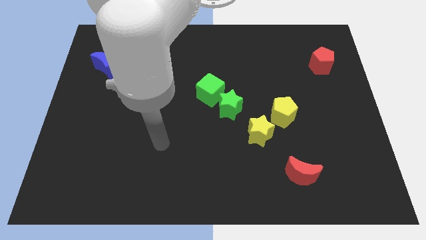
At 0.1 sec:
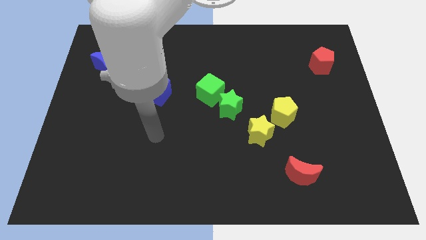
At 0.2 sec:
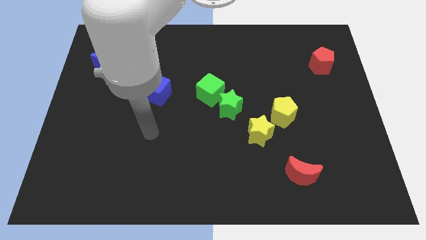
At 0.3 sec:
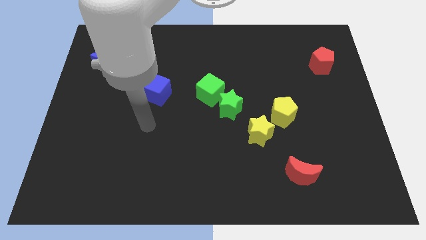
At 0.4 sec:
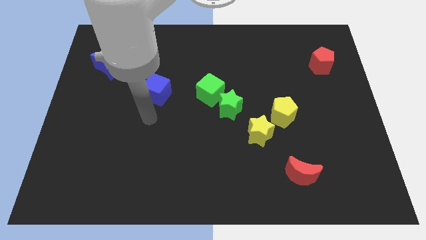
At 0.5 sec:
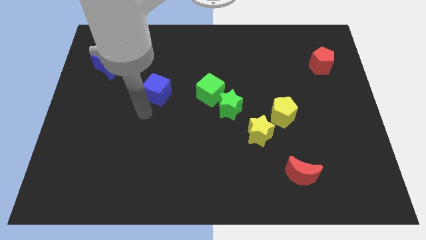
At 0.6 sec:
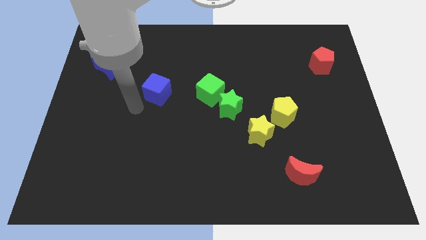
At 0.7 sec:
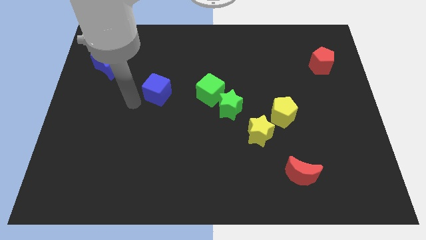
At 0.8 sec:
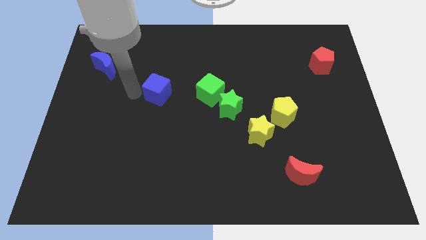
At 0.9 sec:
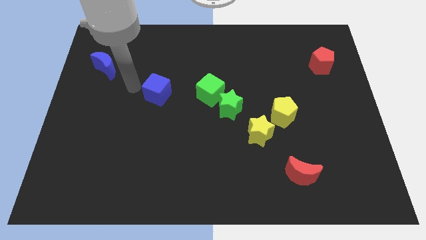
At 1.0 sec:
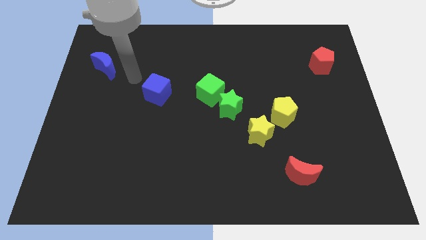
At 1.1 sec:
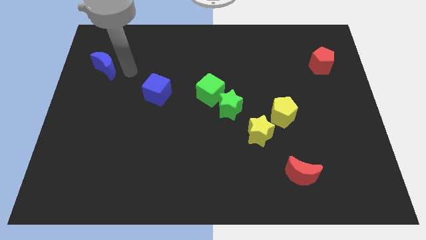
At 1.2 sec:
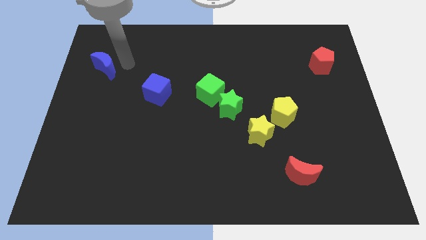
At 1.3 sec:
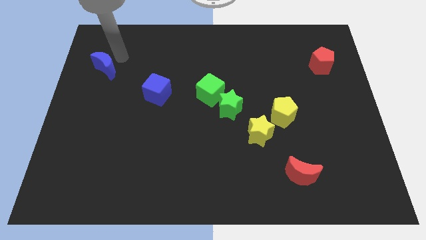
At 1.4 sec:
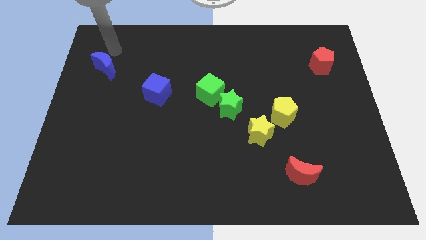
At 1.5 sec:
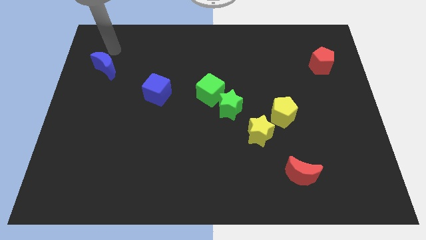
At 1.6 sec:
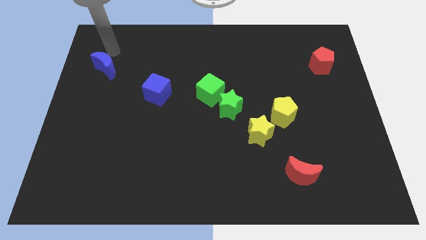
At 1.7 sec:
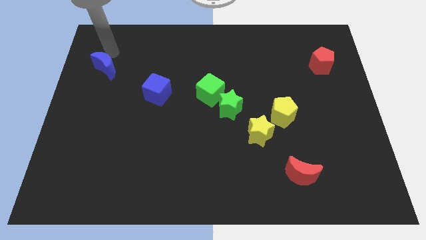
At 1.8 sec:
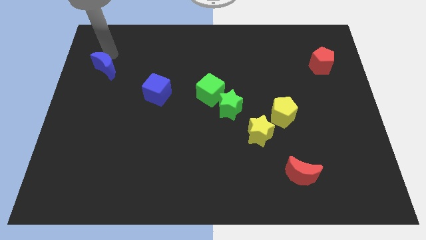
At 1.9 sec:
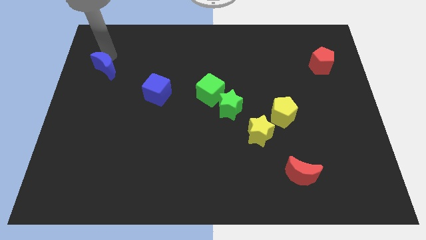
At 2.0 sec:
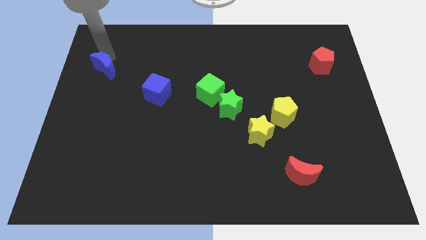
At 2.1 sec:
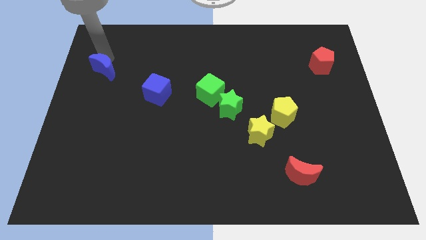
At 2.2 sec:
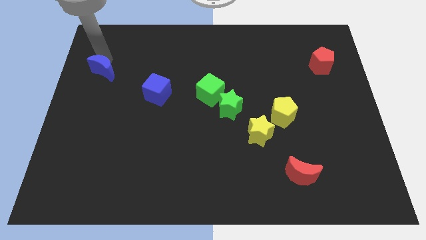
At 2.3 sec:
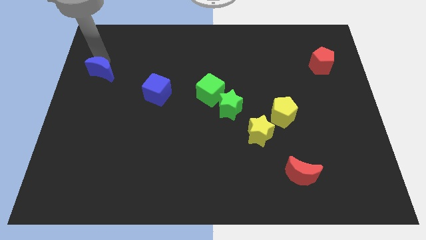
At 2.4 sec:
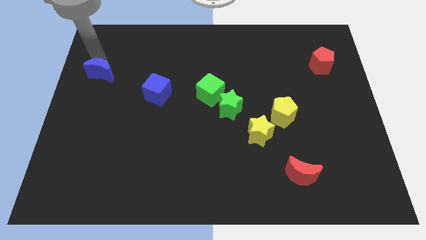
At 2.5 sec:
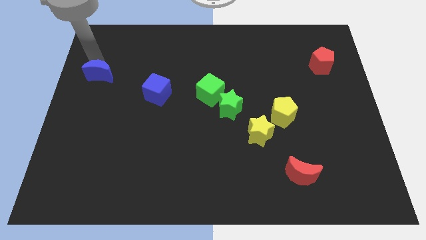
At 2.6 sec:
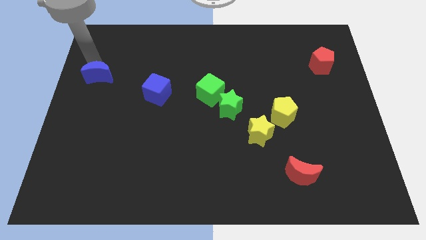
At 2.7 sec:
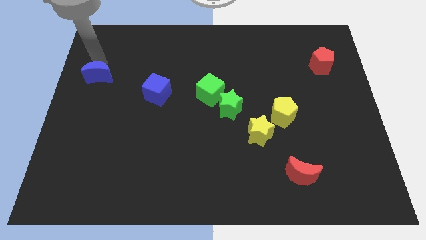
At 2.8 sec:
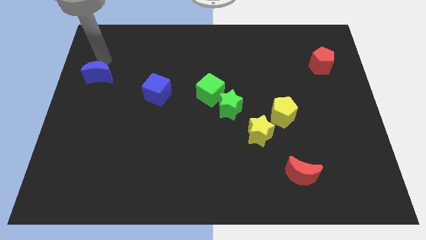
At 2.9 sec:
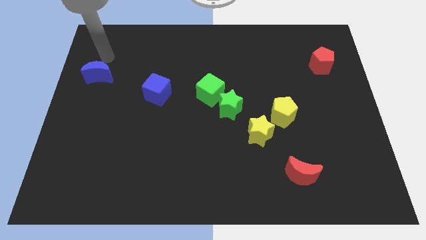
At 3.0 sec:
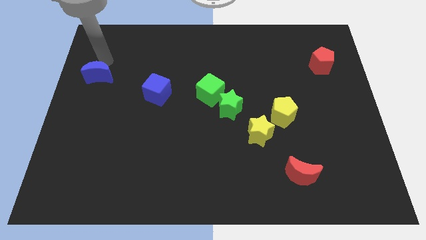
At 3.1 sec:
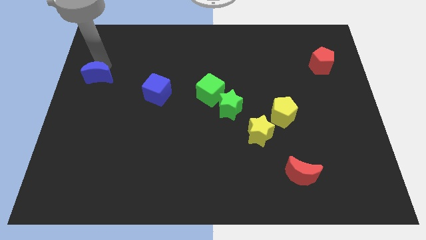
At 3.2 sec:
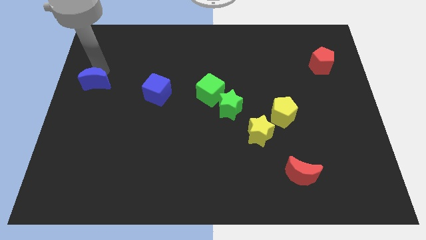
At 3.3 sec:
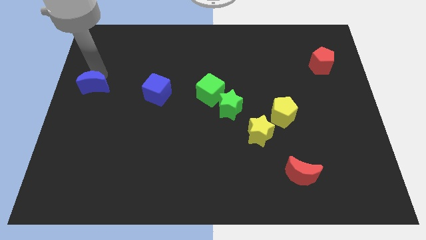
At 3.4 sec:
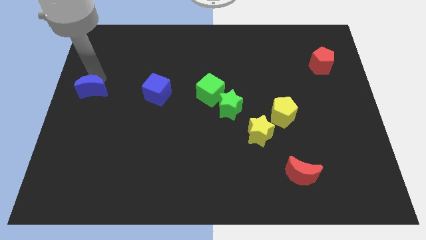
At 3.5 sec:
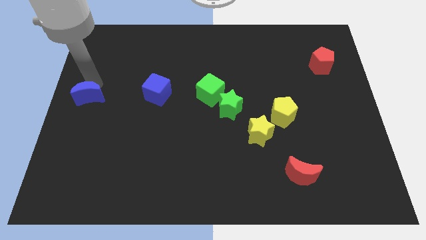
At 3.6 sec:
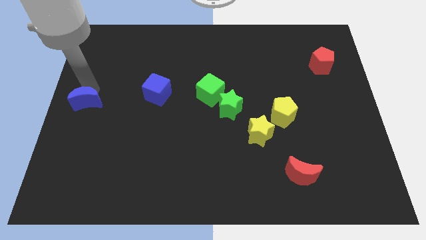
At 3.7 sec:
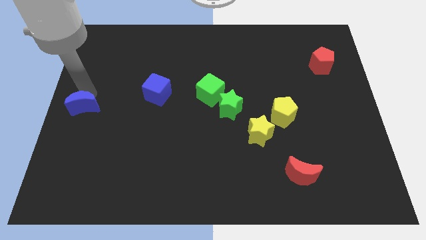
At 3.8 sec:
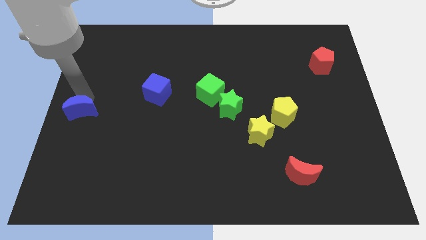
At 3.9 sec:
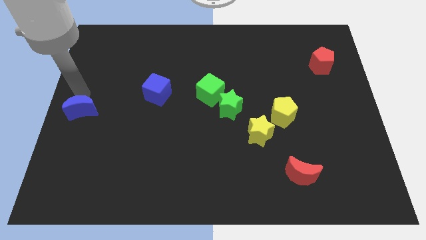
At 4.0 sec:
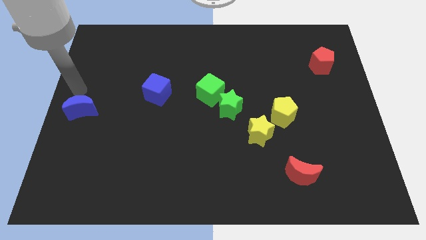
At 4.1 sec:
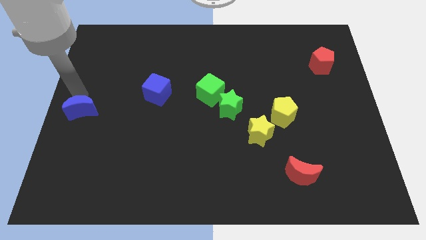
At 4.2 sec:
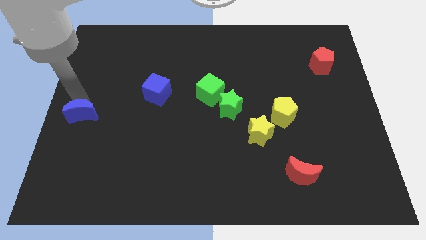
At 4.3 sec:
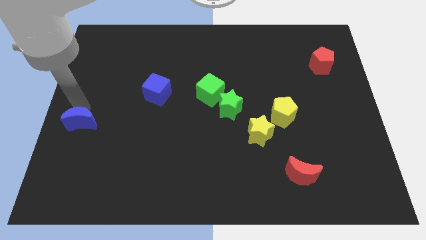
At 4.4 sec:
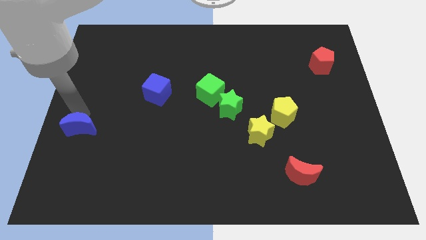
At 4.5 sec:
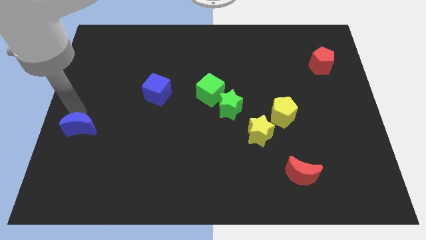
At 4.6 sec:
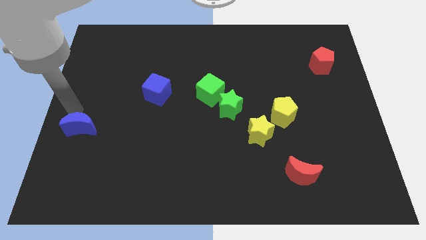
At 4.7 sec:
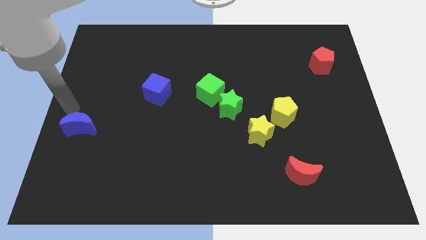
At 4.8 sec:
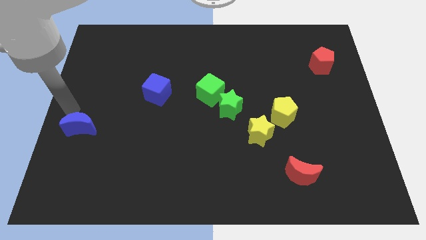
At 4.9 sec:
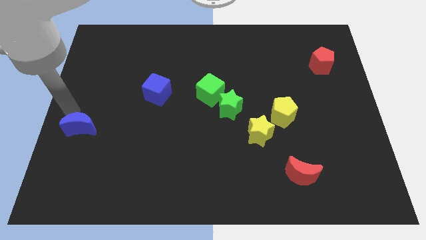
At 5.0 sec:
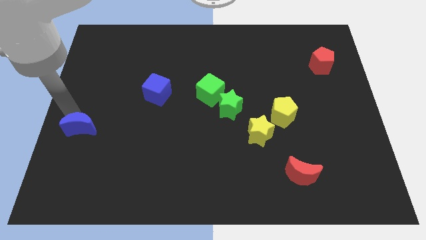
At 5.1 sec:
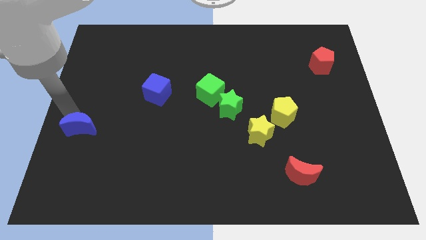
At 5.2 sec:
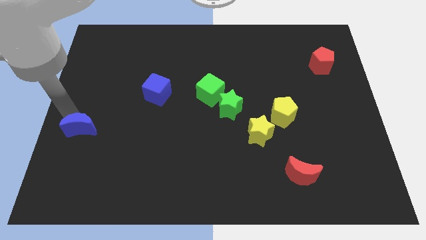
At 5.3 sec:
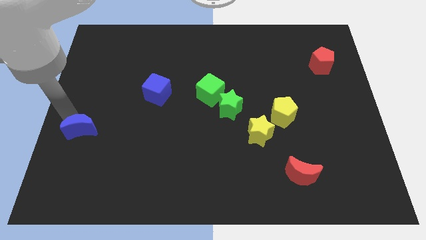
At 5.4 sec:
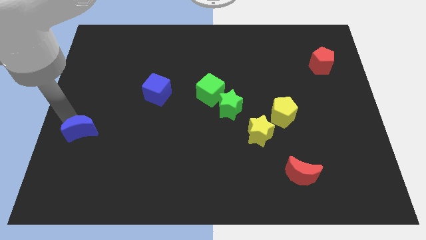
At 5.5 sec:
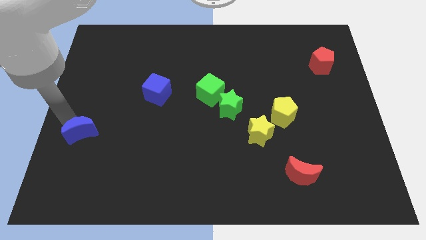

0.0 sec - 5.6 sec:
slide the blue moon downwards

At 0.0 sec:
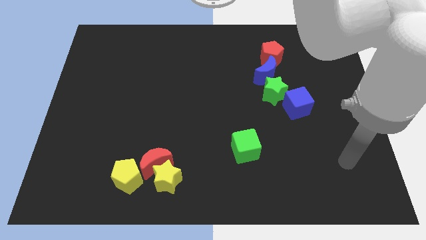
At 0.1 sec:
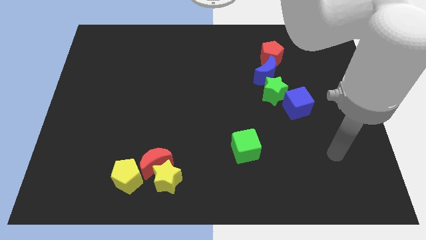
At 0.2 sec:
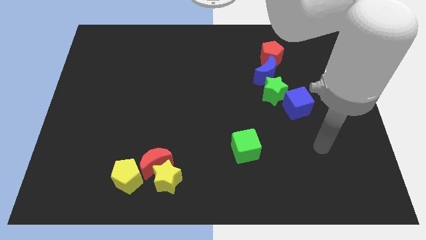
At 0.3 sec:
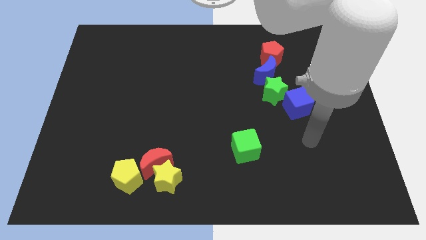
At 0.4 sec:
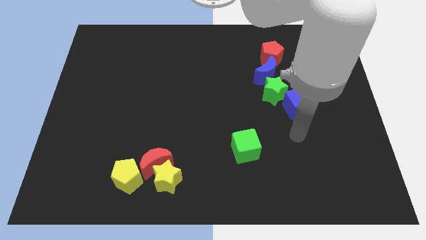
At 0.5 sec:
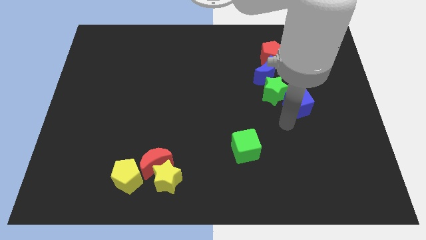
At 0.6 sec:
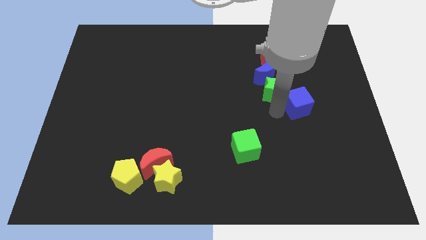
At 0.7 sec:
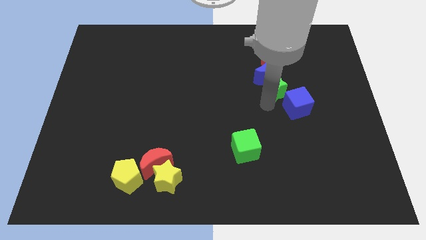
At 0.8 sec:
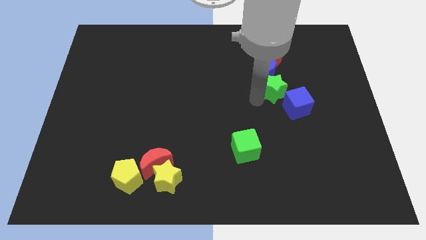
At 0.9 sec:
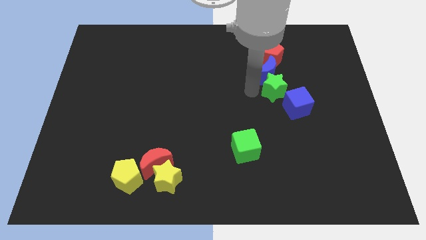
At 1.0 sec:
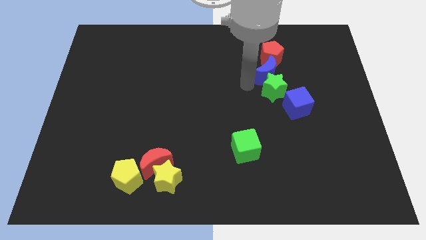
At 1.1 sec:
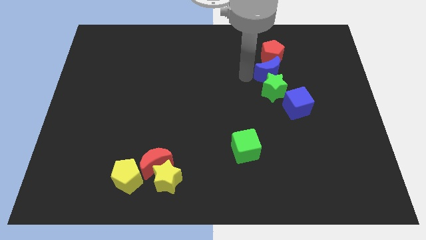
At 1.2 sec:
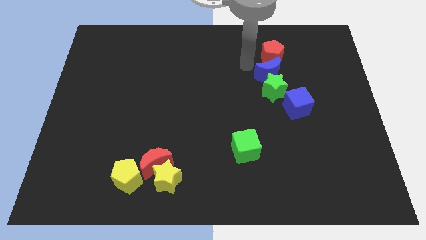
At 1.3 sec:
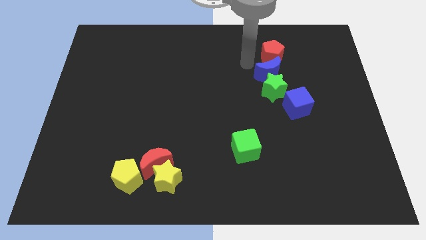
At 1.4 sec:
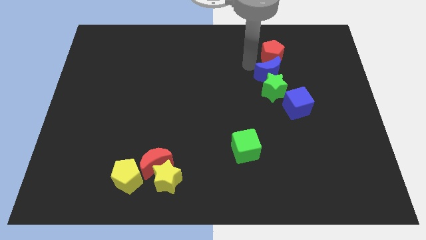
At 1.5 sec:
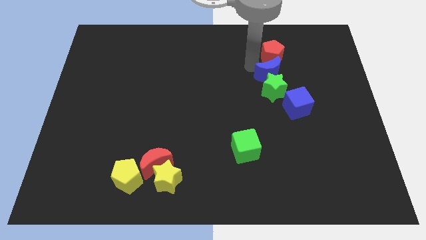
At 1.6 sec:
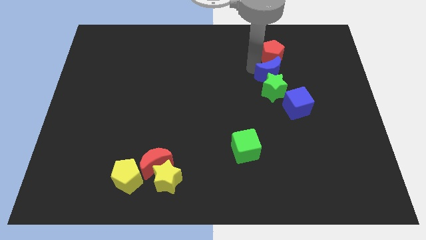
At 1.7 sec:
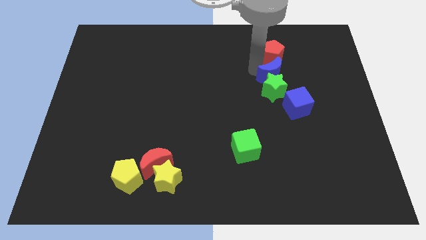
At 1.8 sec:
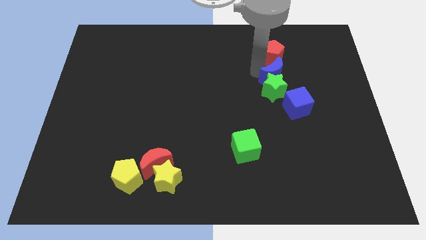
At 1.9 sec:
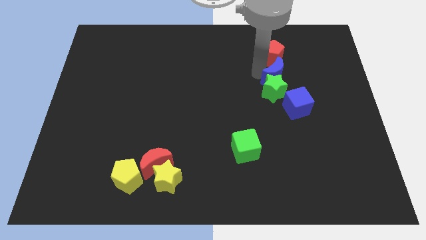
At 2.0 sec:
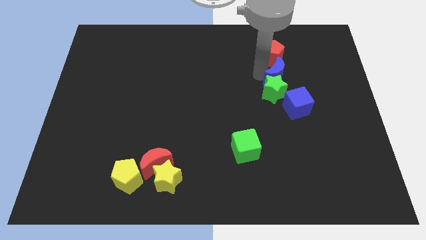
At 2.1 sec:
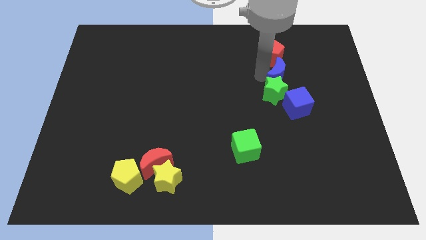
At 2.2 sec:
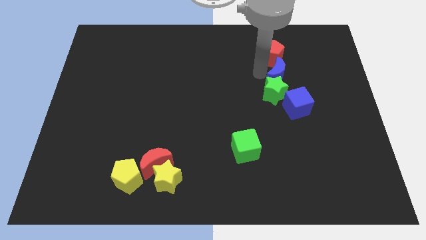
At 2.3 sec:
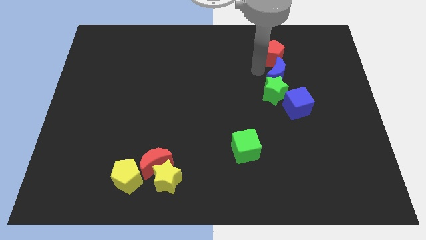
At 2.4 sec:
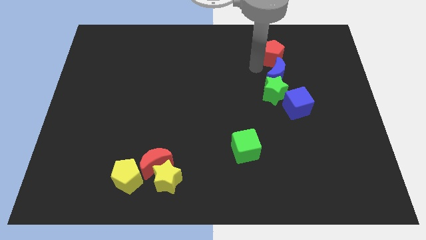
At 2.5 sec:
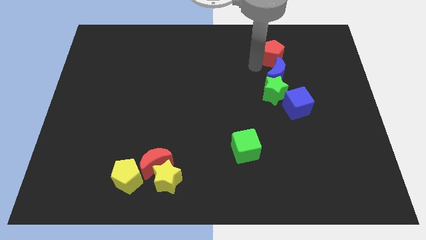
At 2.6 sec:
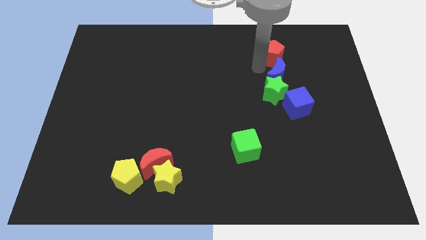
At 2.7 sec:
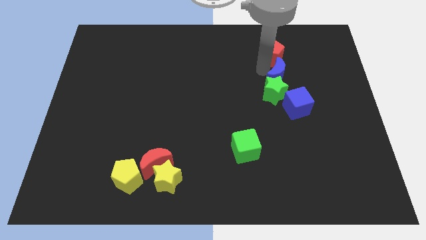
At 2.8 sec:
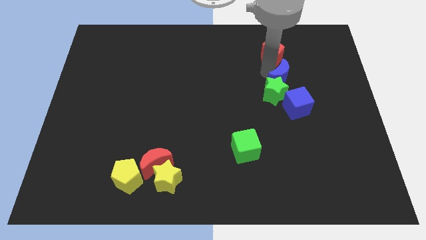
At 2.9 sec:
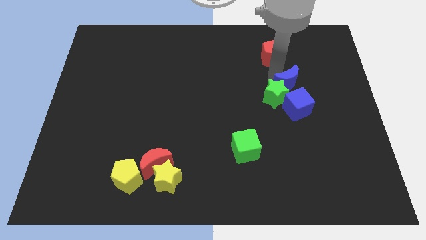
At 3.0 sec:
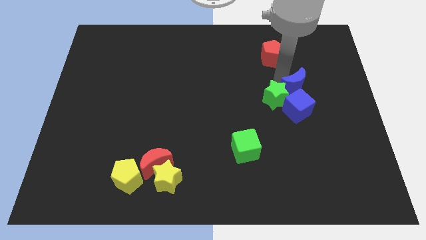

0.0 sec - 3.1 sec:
slide the blue moon a little bit down and to the right
